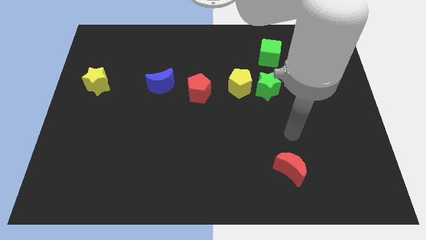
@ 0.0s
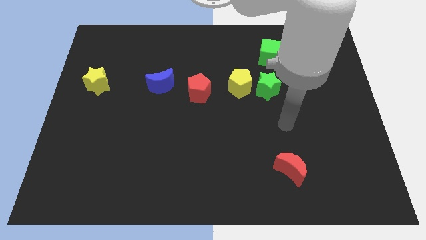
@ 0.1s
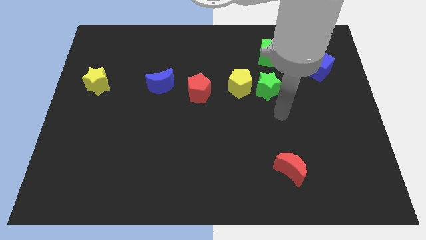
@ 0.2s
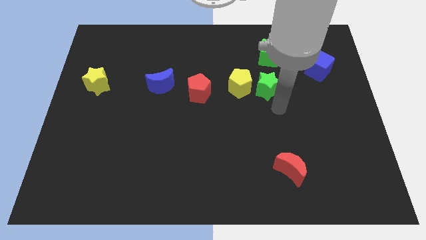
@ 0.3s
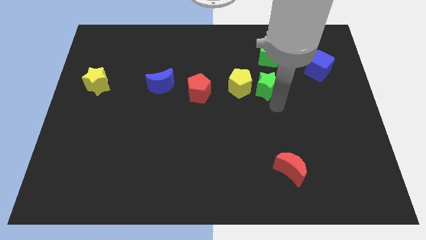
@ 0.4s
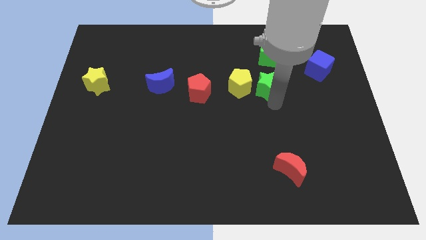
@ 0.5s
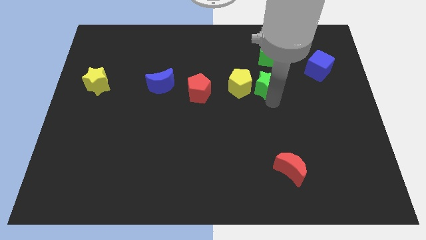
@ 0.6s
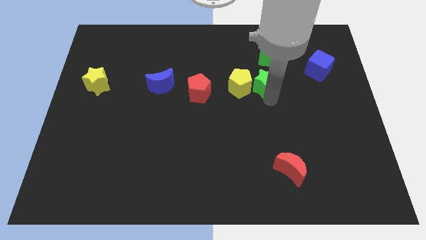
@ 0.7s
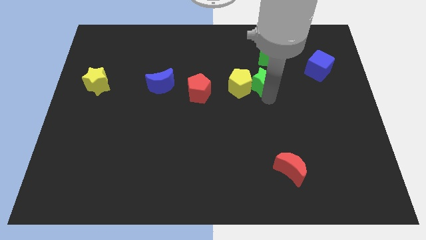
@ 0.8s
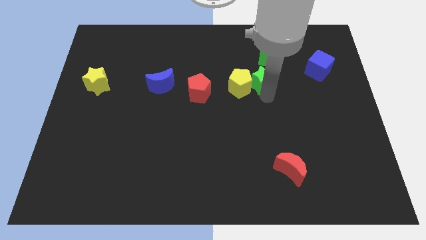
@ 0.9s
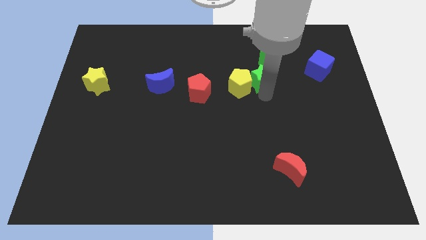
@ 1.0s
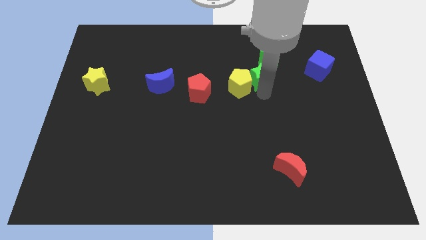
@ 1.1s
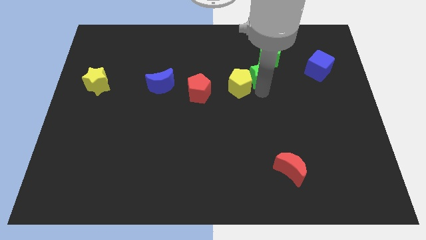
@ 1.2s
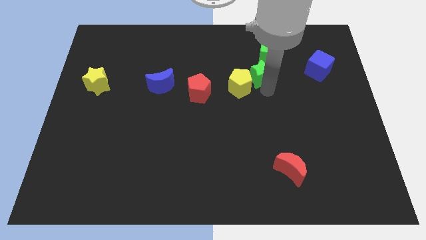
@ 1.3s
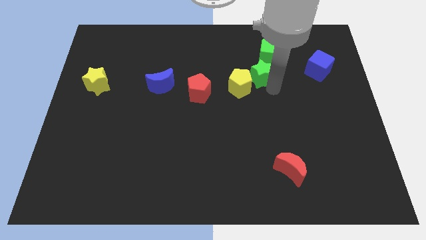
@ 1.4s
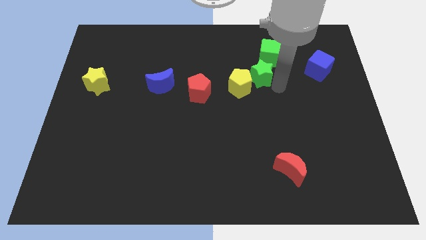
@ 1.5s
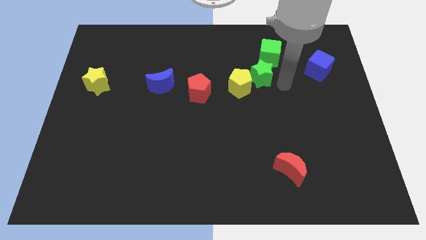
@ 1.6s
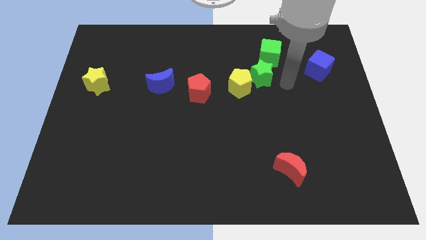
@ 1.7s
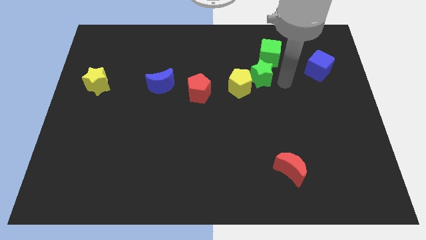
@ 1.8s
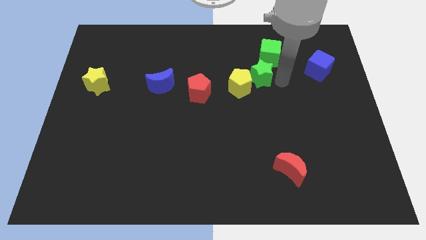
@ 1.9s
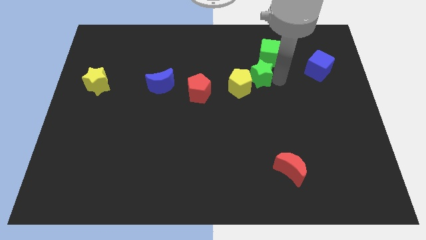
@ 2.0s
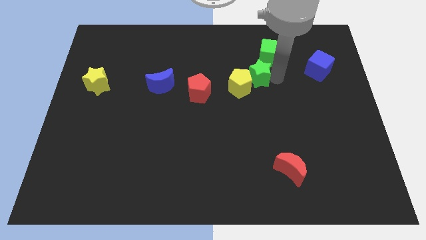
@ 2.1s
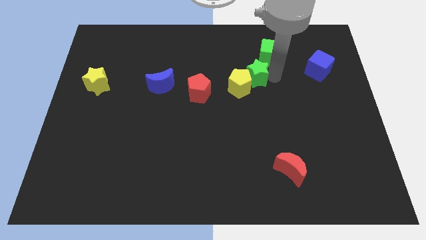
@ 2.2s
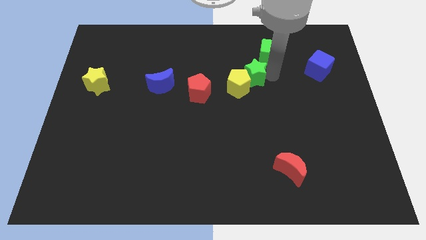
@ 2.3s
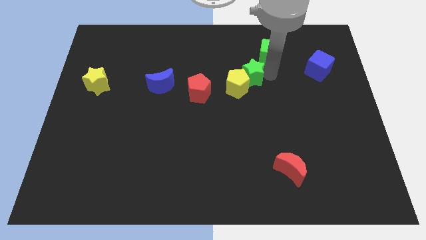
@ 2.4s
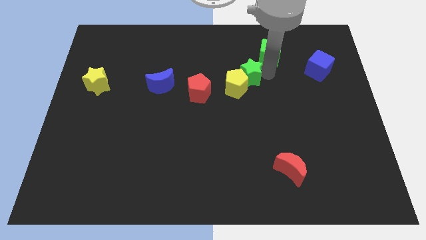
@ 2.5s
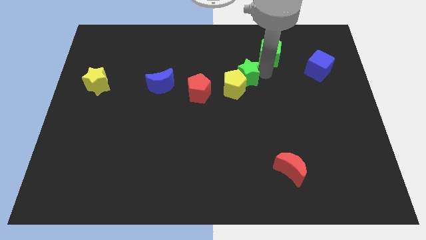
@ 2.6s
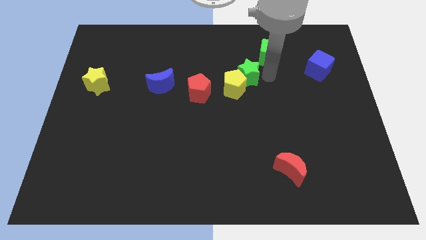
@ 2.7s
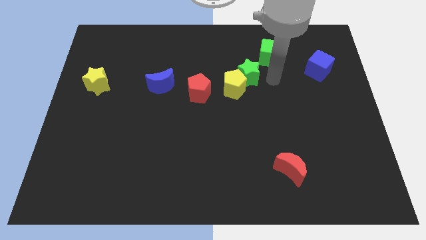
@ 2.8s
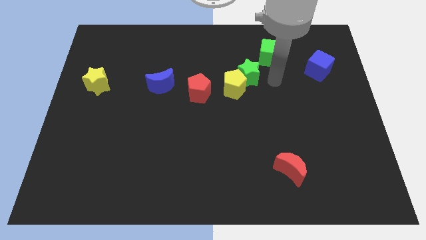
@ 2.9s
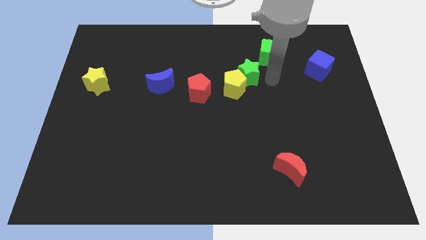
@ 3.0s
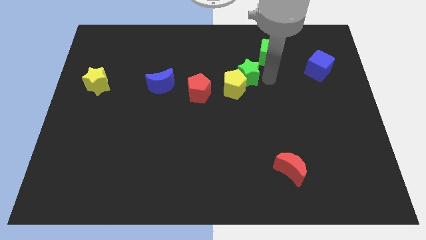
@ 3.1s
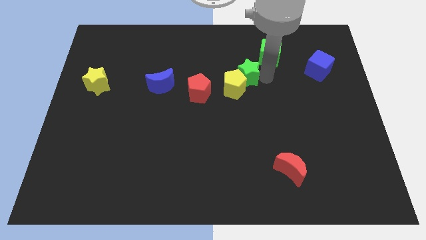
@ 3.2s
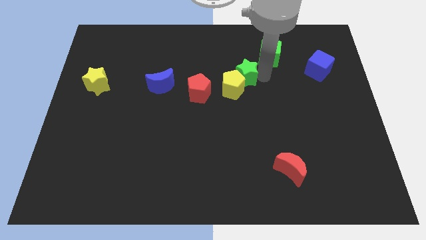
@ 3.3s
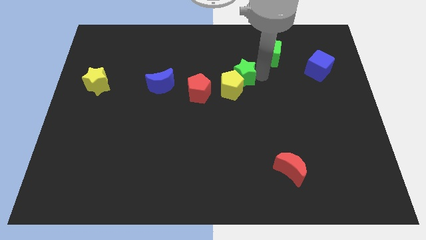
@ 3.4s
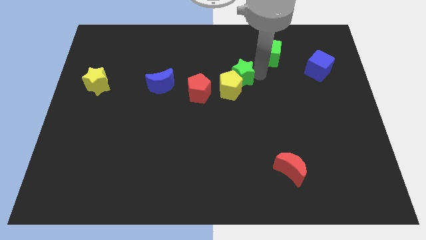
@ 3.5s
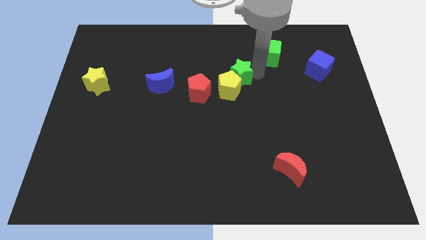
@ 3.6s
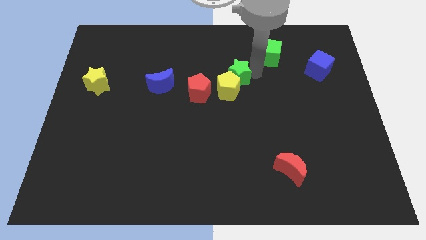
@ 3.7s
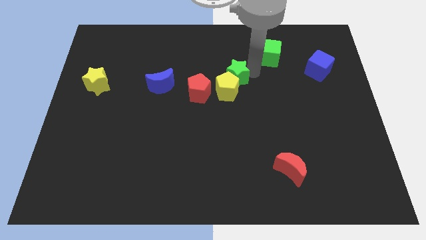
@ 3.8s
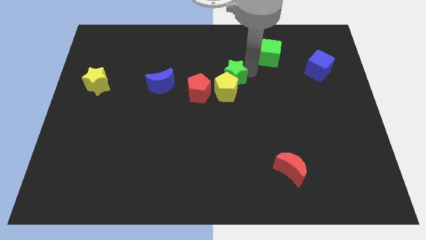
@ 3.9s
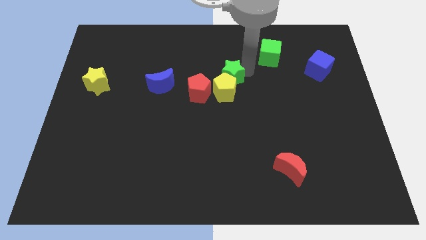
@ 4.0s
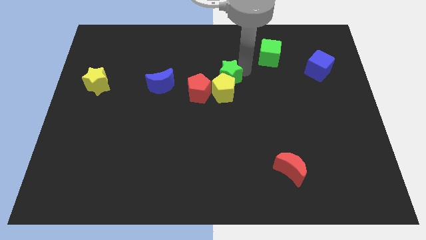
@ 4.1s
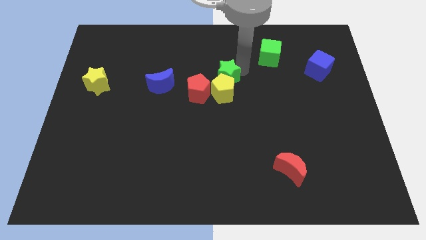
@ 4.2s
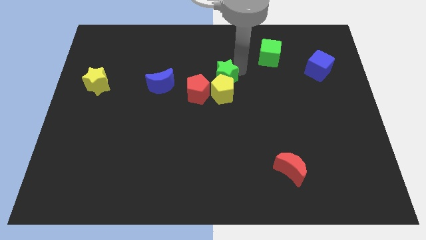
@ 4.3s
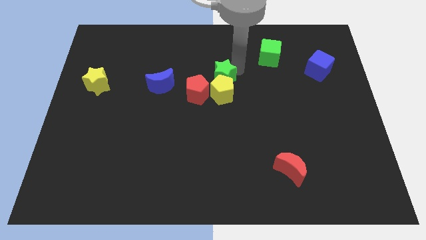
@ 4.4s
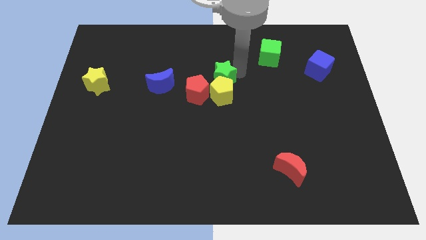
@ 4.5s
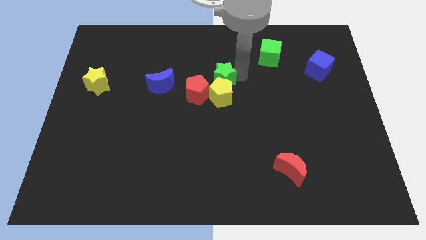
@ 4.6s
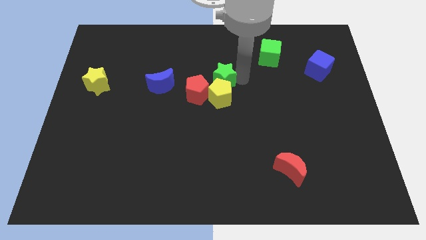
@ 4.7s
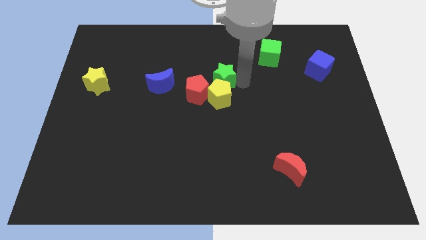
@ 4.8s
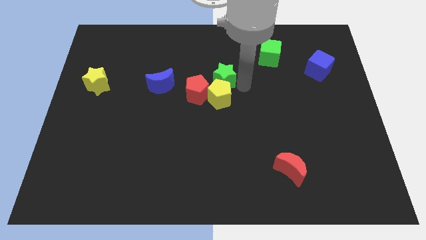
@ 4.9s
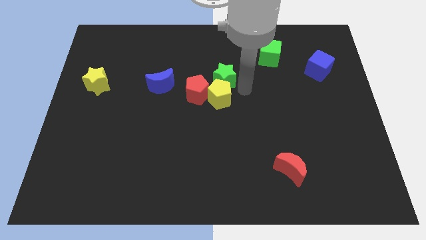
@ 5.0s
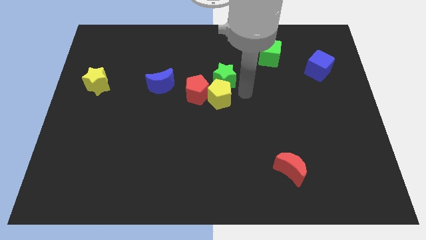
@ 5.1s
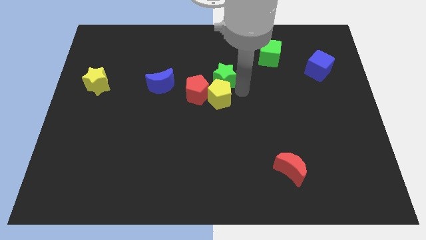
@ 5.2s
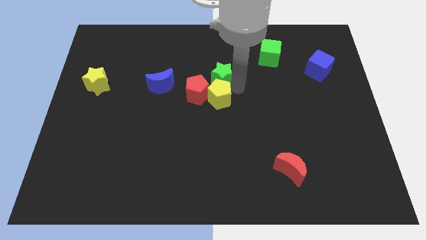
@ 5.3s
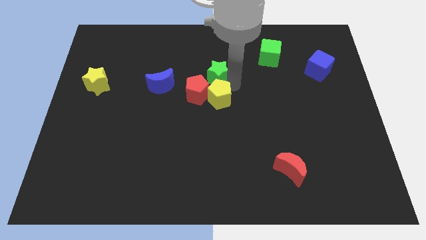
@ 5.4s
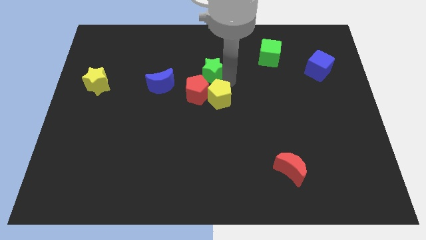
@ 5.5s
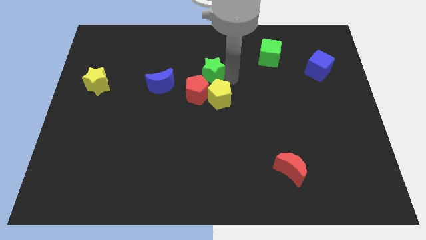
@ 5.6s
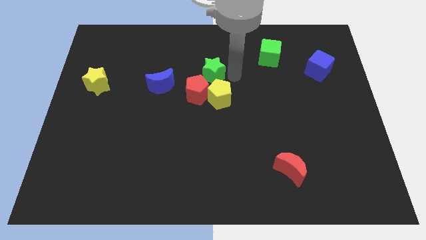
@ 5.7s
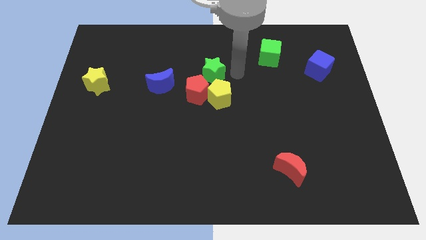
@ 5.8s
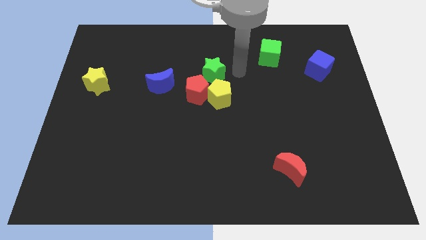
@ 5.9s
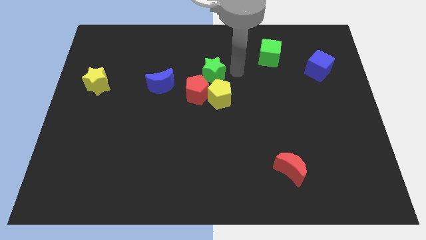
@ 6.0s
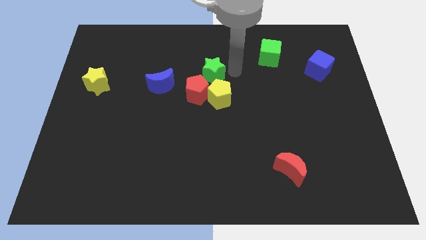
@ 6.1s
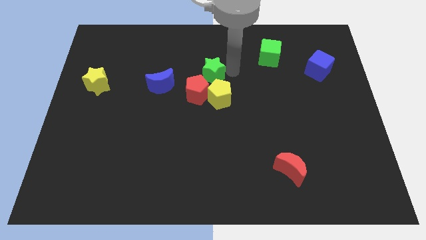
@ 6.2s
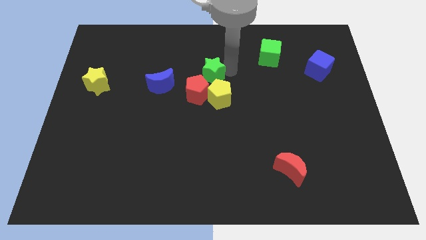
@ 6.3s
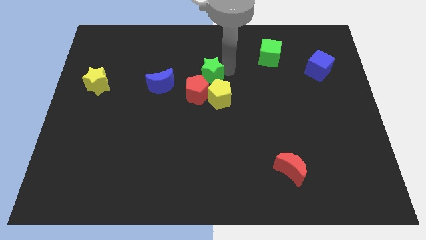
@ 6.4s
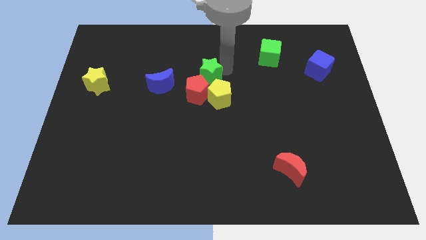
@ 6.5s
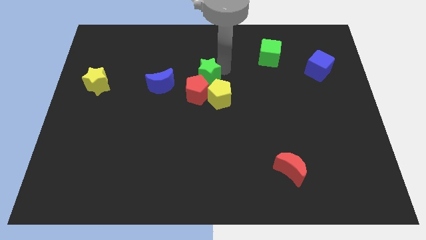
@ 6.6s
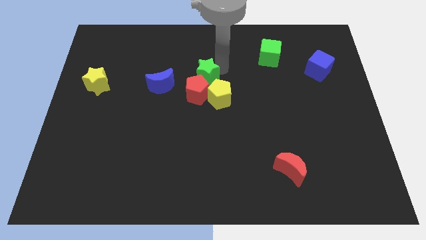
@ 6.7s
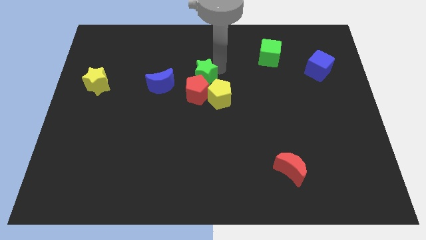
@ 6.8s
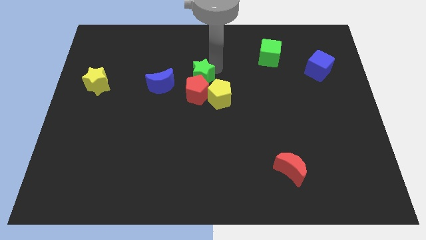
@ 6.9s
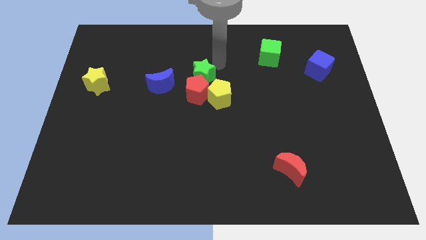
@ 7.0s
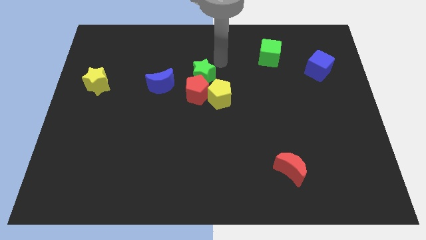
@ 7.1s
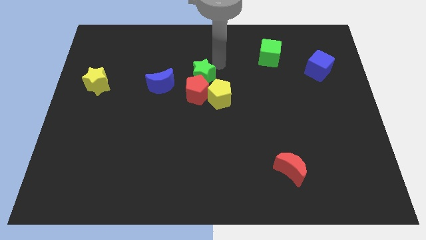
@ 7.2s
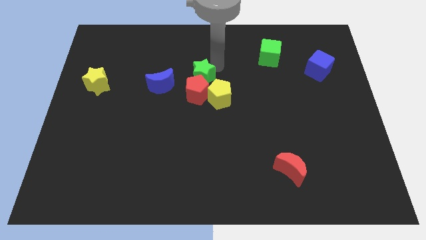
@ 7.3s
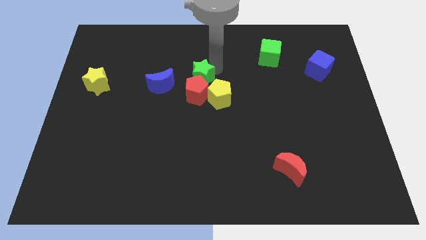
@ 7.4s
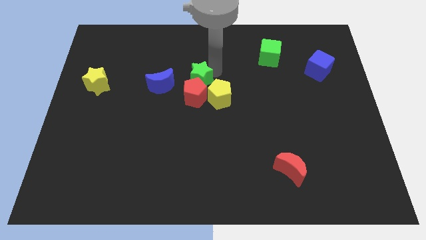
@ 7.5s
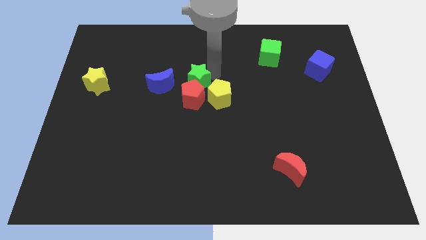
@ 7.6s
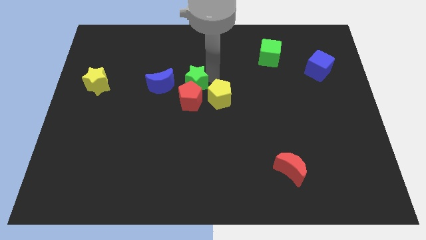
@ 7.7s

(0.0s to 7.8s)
slide the green star just left of the yellow pentagon

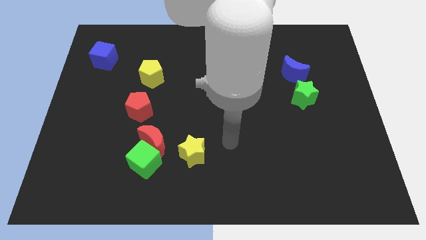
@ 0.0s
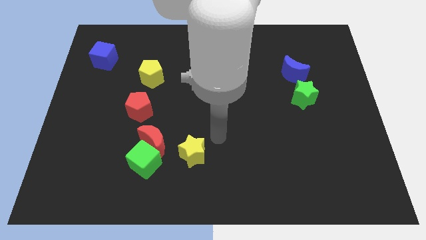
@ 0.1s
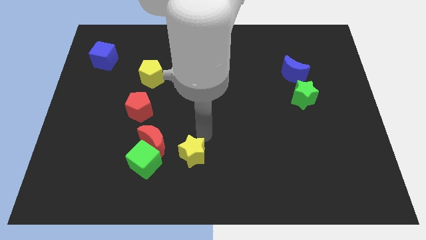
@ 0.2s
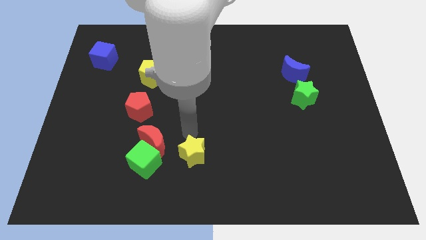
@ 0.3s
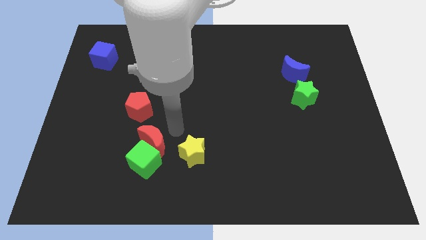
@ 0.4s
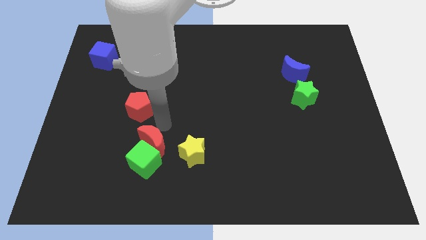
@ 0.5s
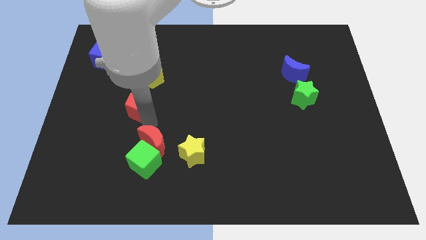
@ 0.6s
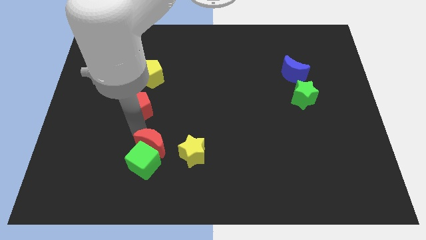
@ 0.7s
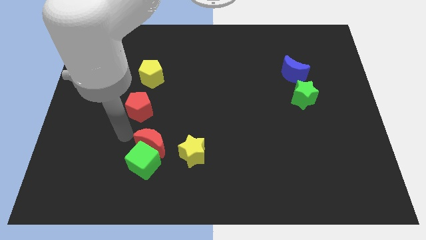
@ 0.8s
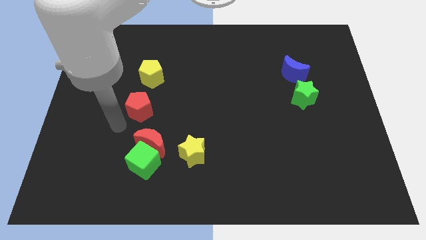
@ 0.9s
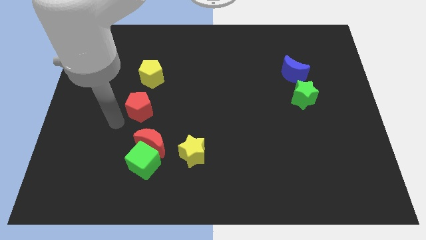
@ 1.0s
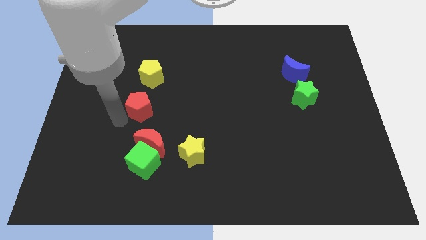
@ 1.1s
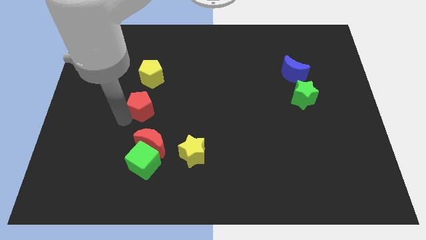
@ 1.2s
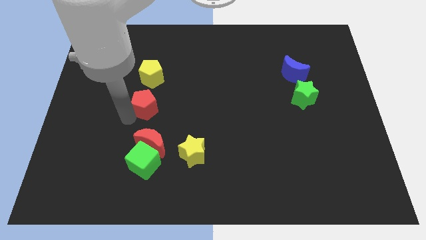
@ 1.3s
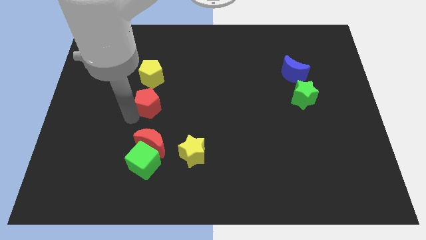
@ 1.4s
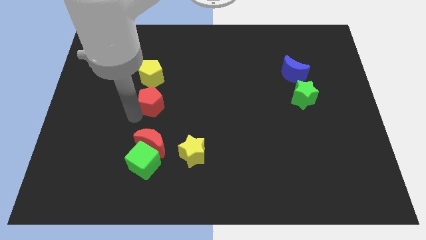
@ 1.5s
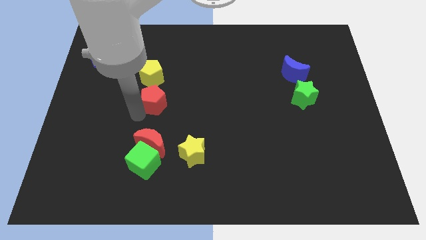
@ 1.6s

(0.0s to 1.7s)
put the red pentagon to the bottom right side of the yellow pentagon
